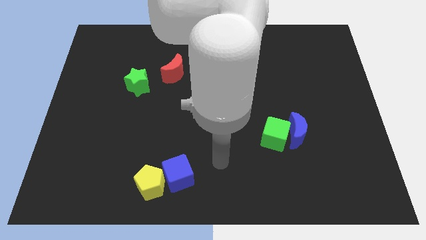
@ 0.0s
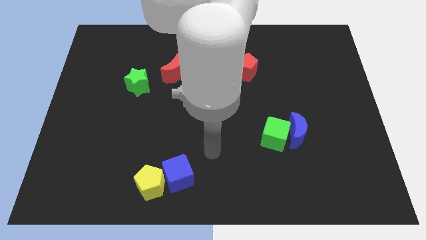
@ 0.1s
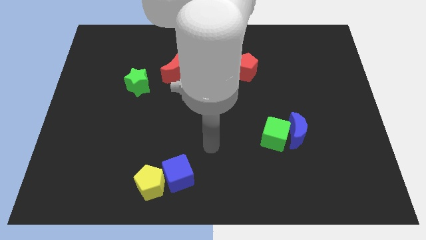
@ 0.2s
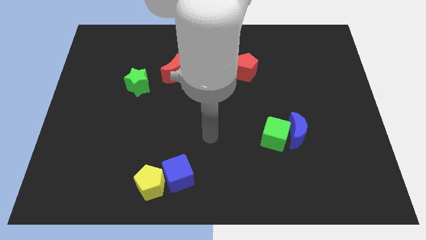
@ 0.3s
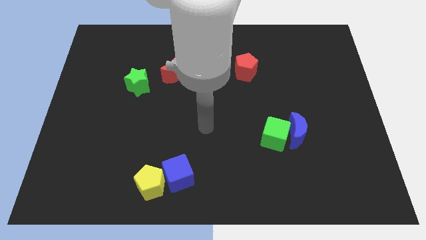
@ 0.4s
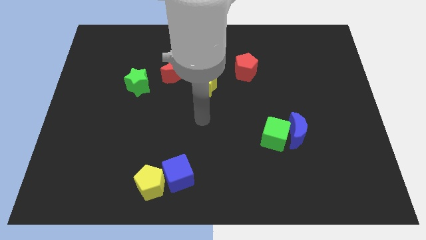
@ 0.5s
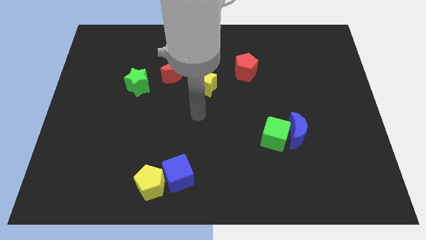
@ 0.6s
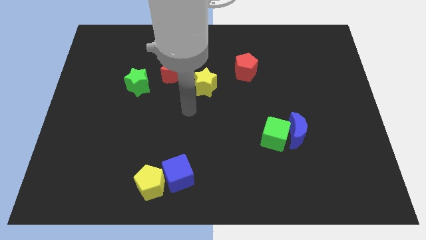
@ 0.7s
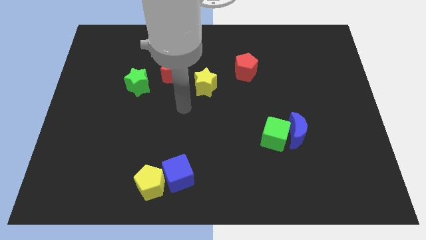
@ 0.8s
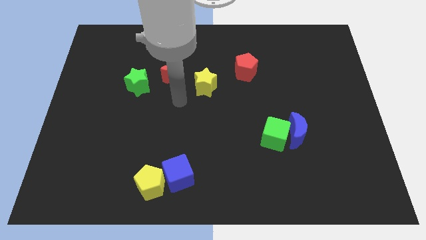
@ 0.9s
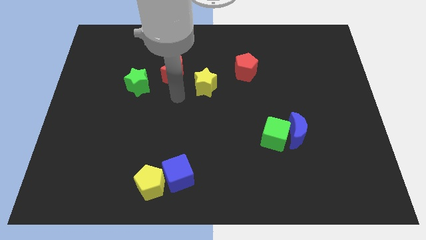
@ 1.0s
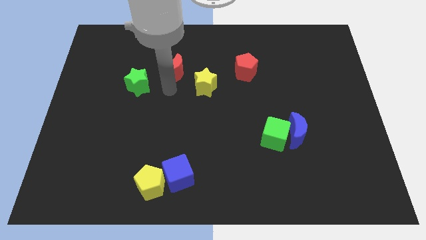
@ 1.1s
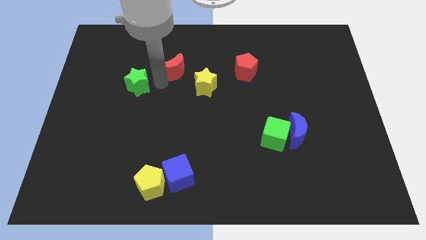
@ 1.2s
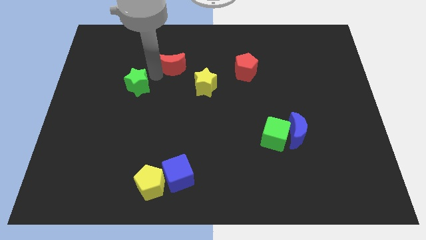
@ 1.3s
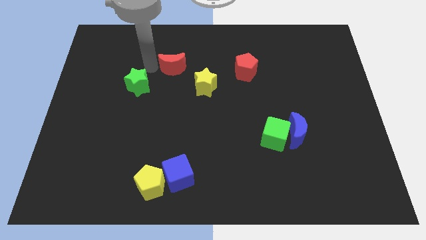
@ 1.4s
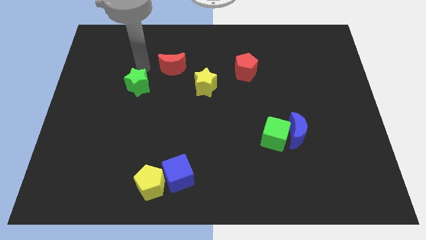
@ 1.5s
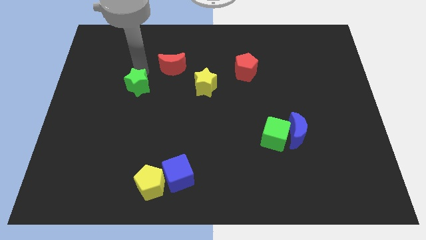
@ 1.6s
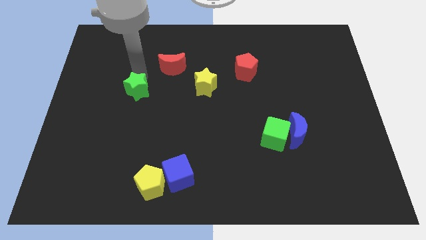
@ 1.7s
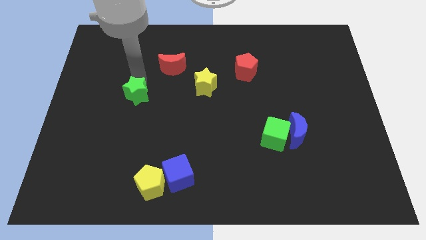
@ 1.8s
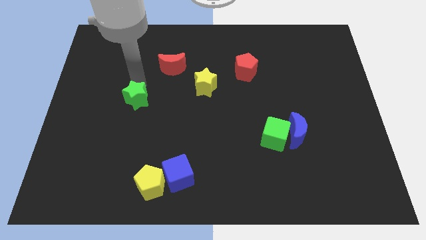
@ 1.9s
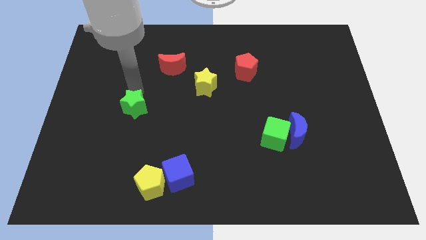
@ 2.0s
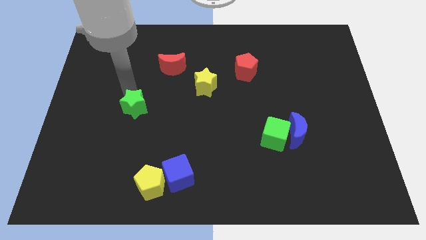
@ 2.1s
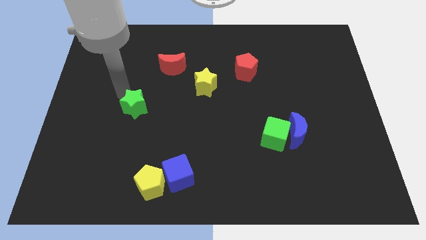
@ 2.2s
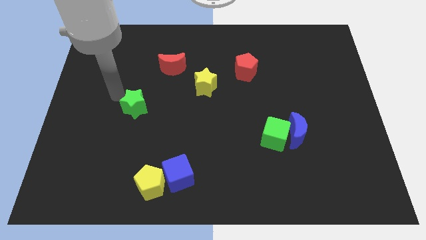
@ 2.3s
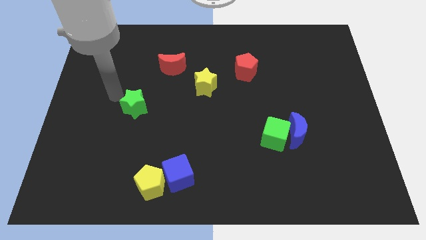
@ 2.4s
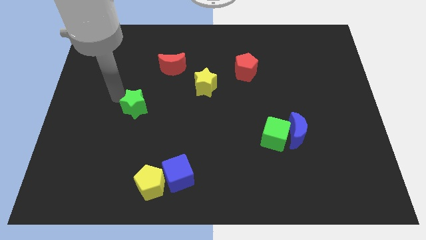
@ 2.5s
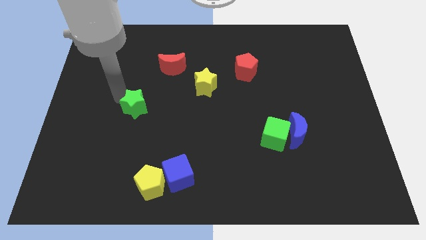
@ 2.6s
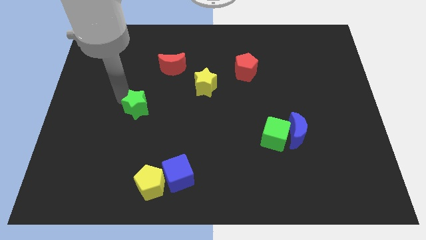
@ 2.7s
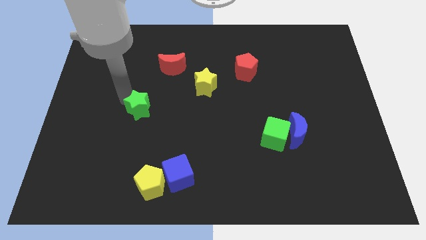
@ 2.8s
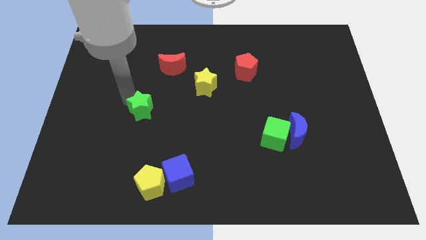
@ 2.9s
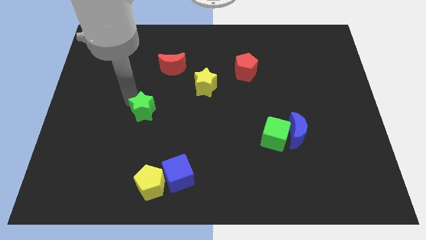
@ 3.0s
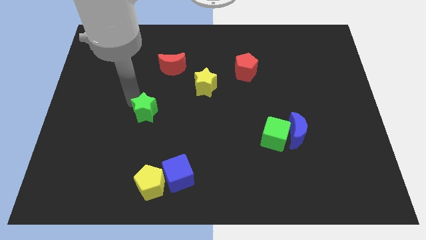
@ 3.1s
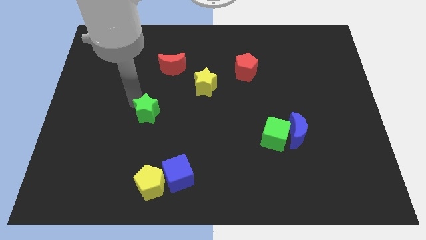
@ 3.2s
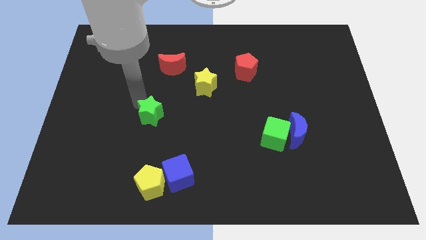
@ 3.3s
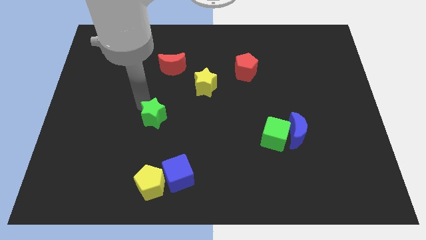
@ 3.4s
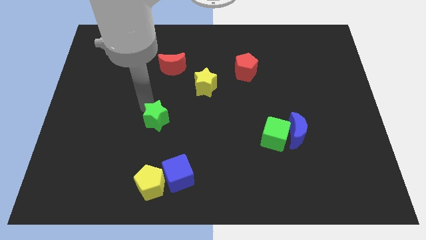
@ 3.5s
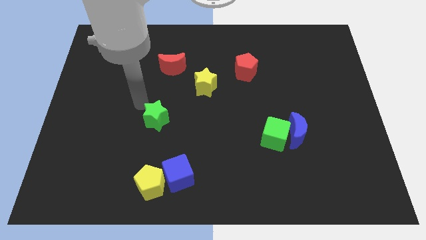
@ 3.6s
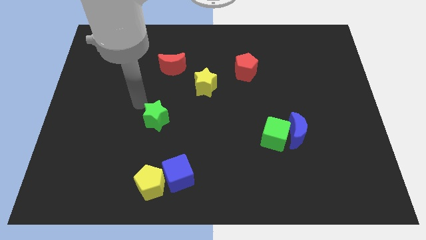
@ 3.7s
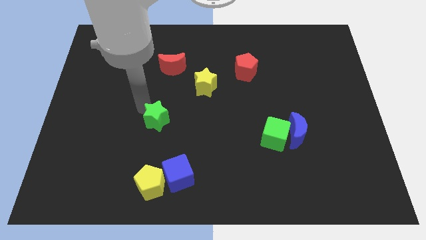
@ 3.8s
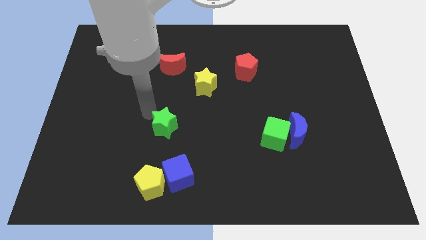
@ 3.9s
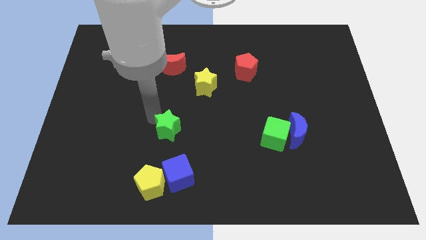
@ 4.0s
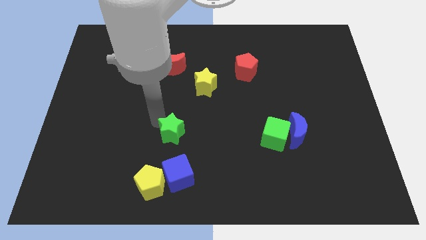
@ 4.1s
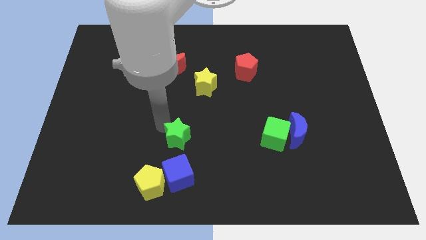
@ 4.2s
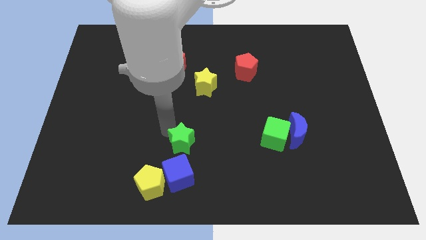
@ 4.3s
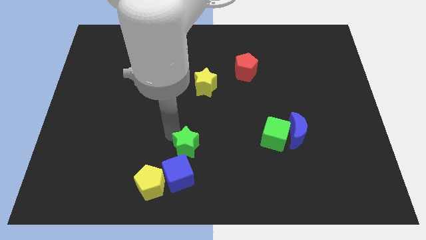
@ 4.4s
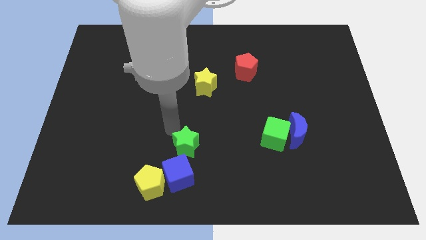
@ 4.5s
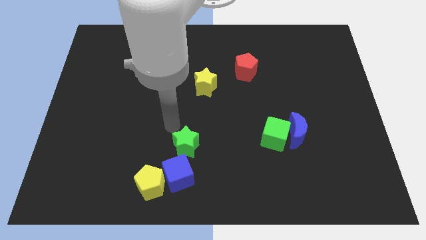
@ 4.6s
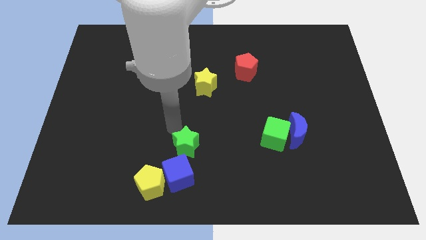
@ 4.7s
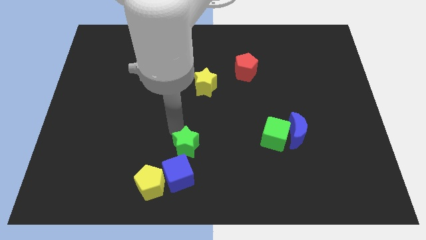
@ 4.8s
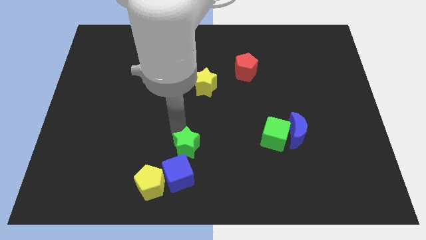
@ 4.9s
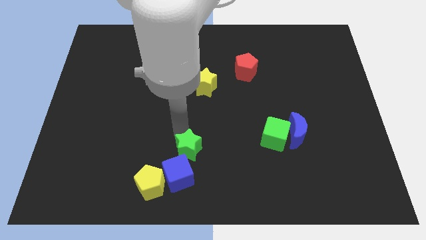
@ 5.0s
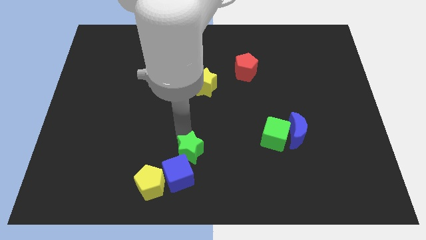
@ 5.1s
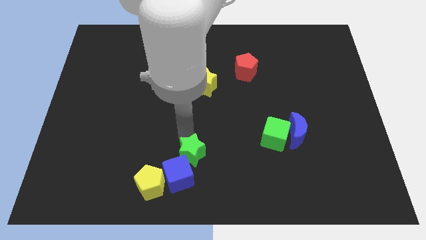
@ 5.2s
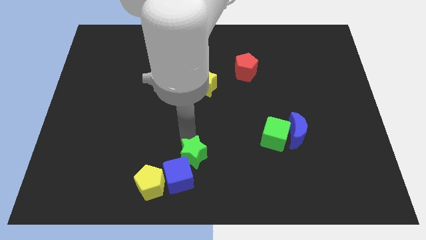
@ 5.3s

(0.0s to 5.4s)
slide the green star to the bottom

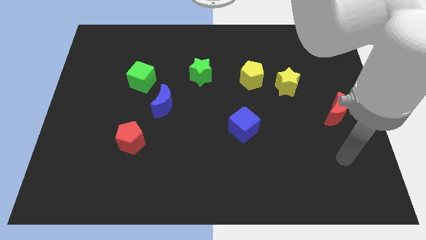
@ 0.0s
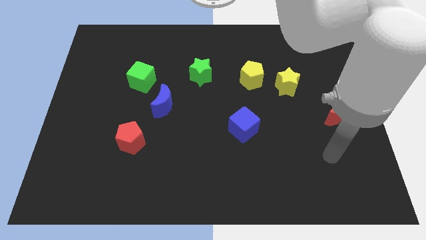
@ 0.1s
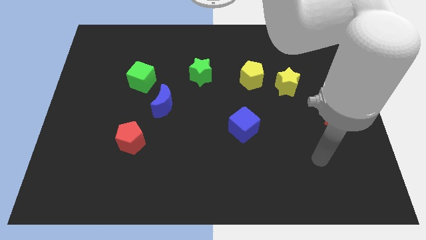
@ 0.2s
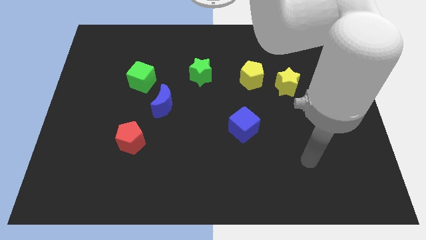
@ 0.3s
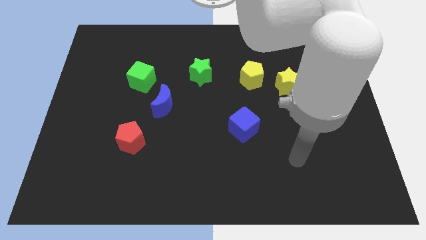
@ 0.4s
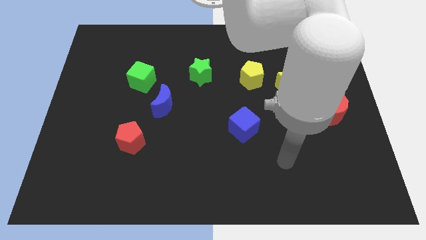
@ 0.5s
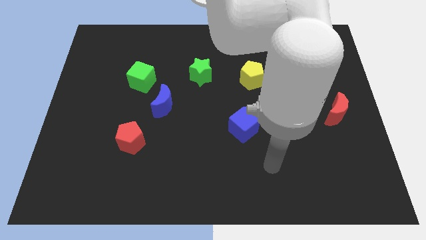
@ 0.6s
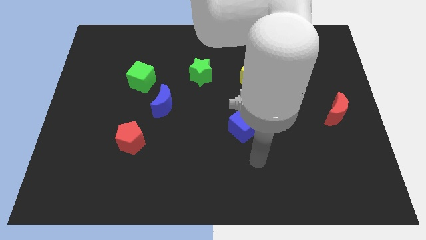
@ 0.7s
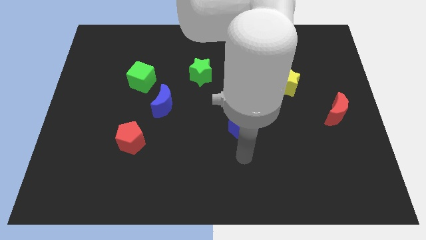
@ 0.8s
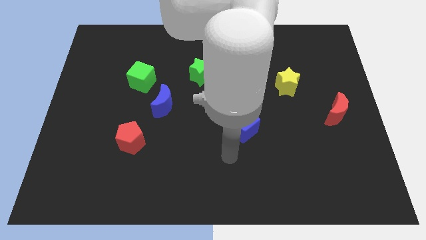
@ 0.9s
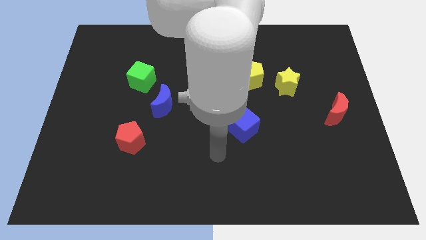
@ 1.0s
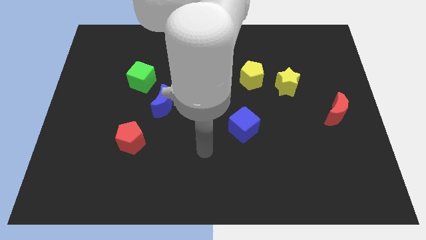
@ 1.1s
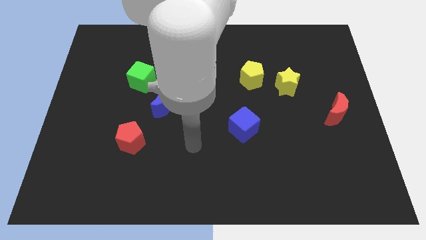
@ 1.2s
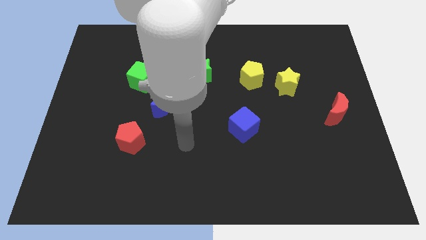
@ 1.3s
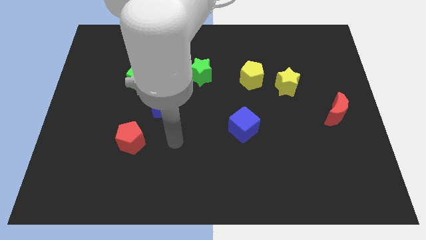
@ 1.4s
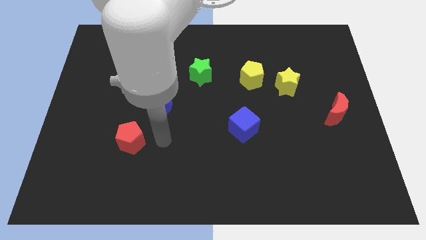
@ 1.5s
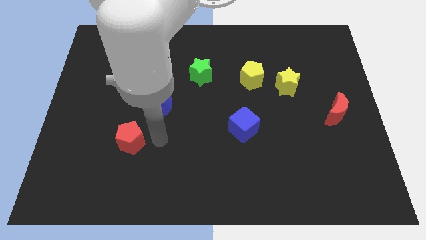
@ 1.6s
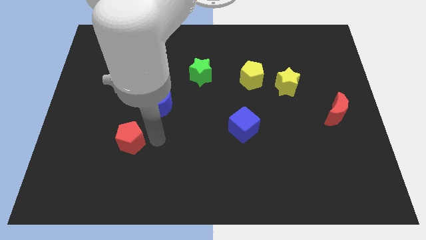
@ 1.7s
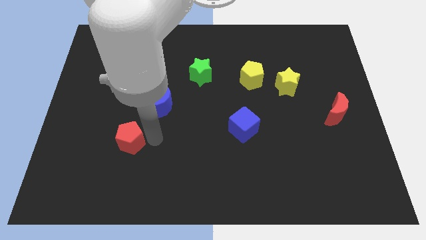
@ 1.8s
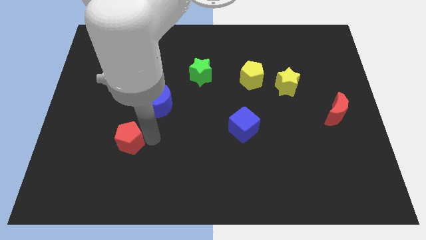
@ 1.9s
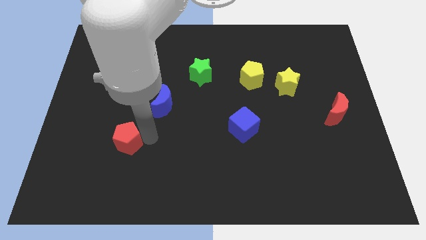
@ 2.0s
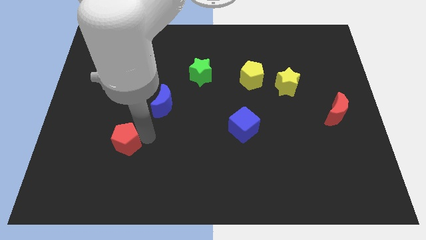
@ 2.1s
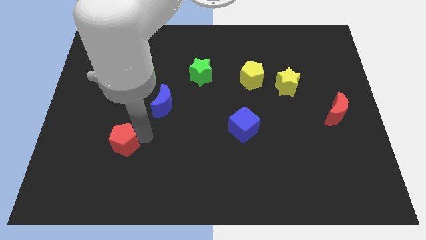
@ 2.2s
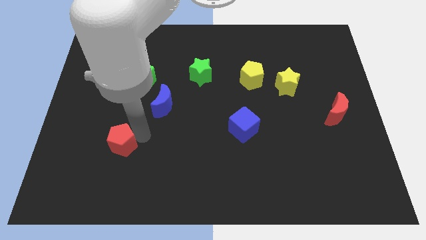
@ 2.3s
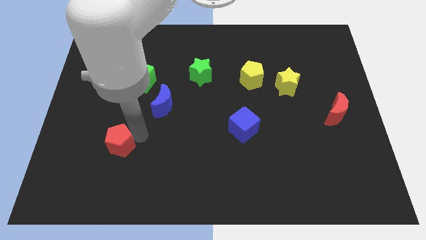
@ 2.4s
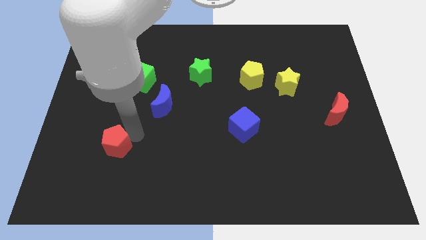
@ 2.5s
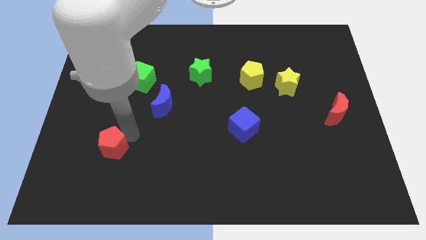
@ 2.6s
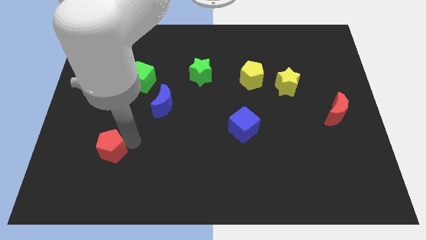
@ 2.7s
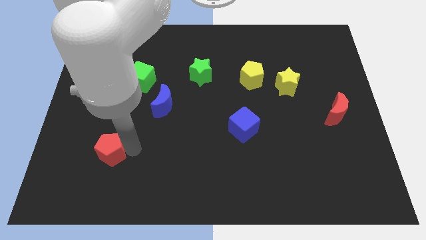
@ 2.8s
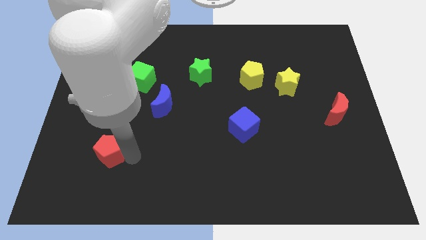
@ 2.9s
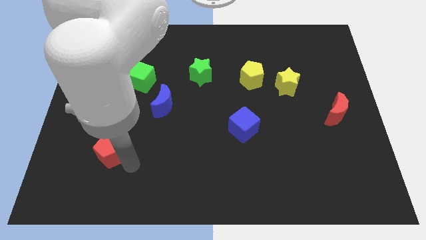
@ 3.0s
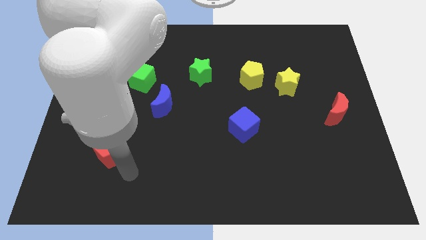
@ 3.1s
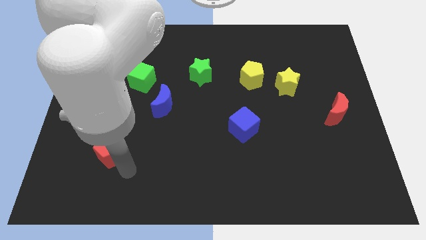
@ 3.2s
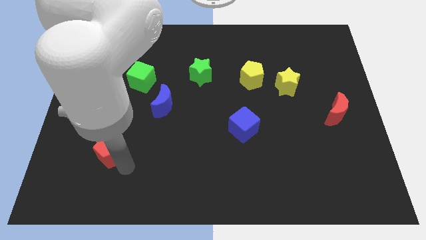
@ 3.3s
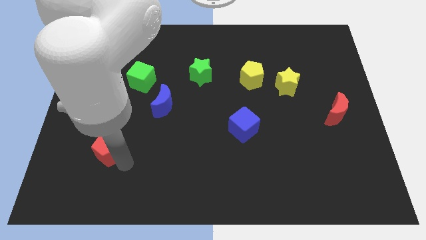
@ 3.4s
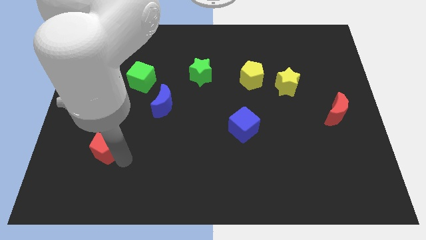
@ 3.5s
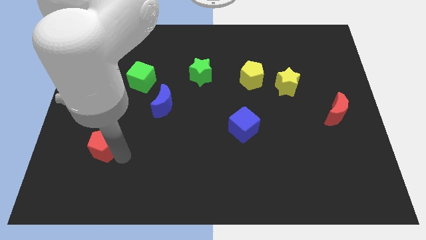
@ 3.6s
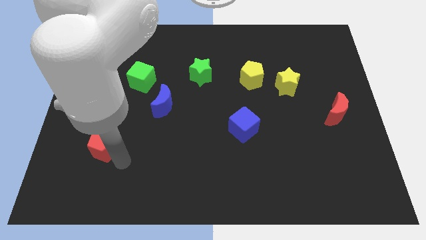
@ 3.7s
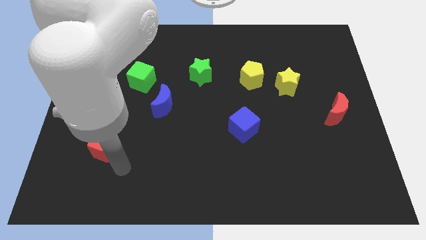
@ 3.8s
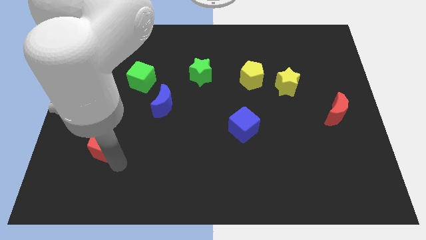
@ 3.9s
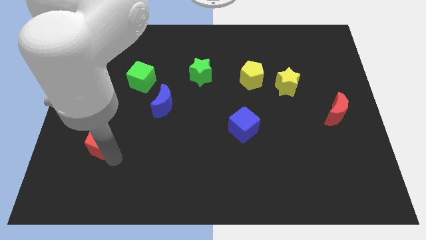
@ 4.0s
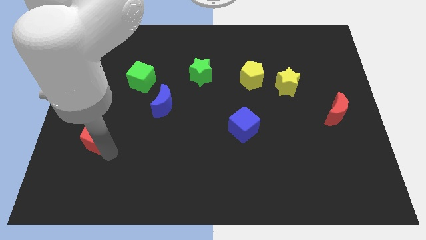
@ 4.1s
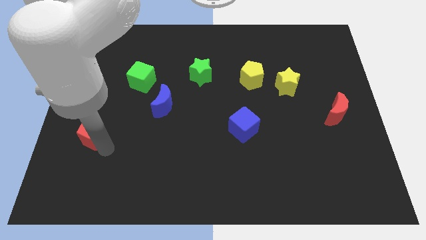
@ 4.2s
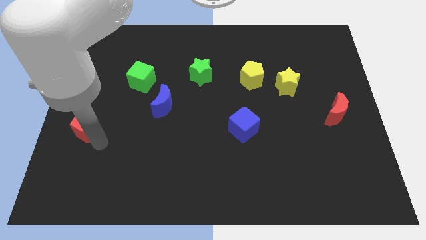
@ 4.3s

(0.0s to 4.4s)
push the red pentagon to the left side
